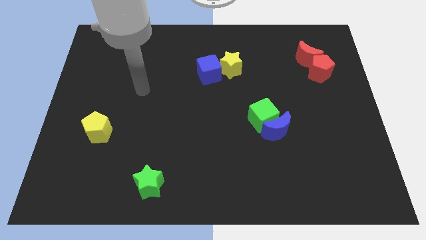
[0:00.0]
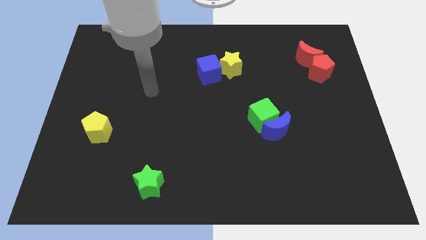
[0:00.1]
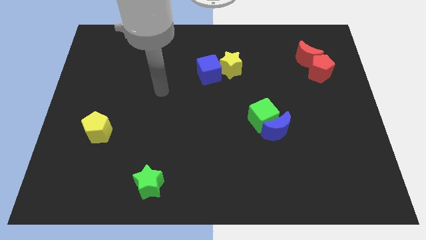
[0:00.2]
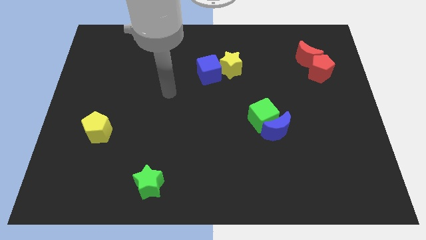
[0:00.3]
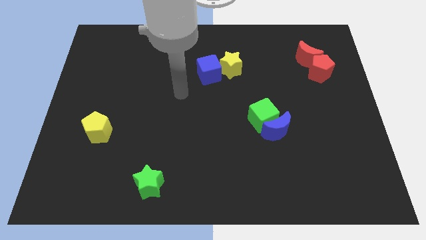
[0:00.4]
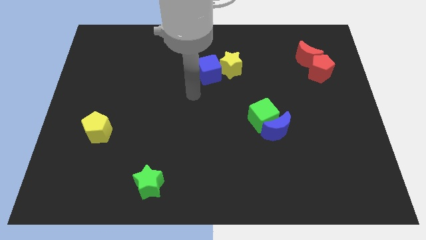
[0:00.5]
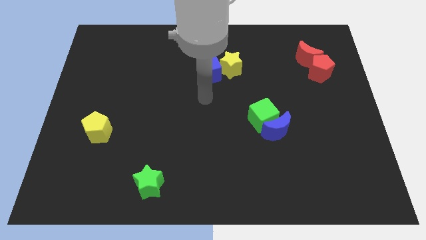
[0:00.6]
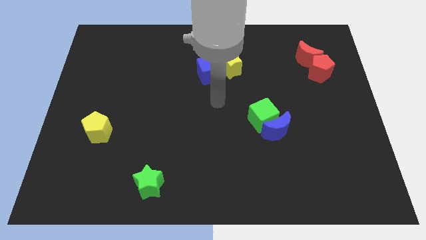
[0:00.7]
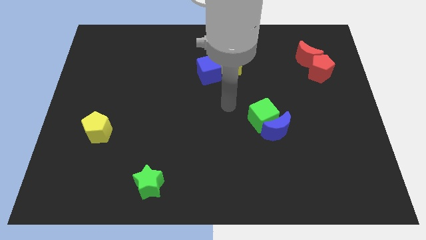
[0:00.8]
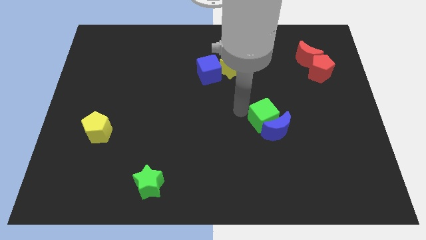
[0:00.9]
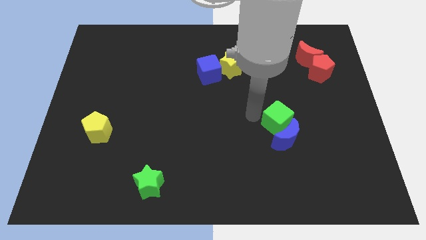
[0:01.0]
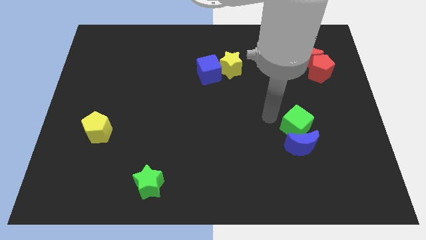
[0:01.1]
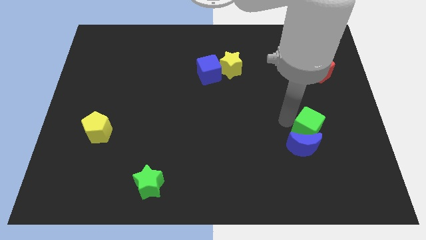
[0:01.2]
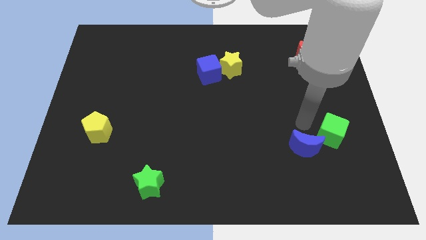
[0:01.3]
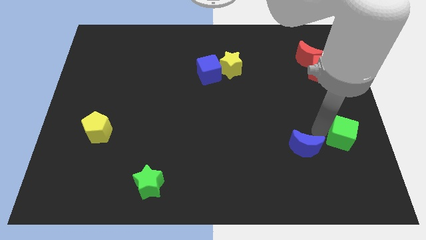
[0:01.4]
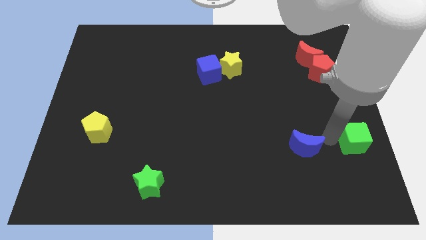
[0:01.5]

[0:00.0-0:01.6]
move the blue moon away from the green cube

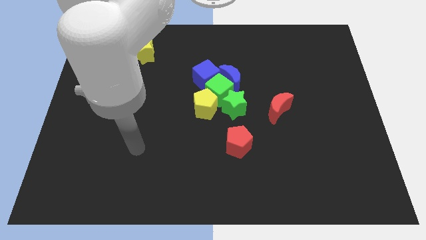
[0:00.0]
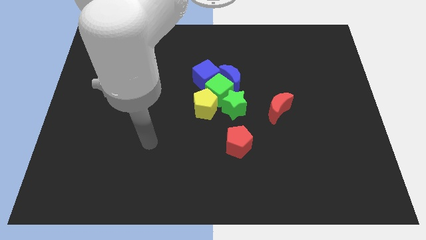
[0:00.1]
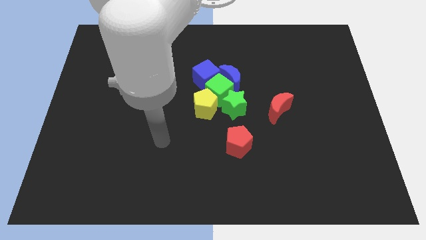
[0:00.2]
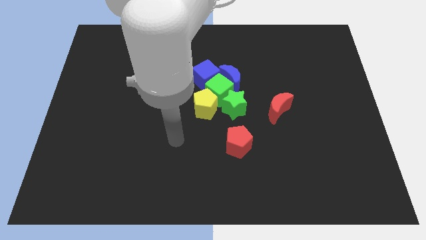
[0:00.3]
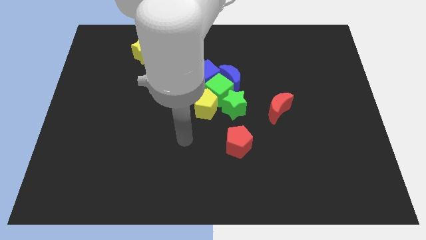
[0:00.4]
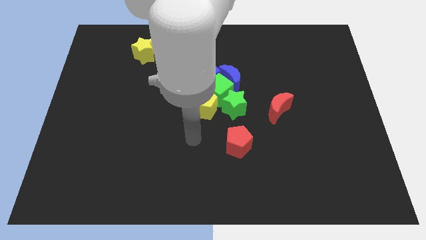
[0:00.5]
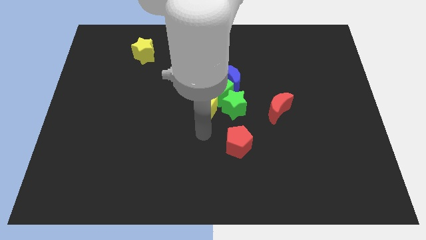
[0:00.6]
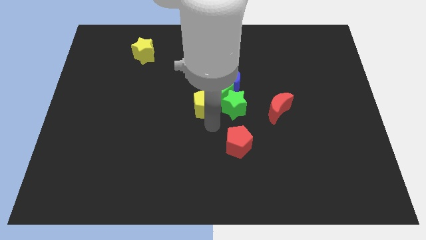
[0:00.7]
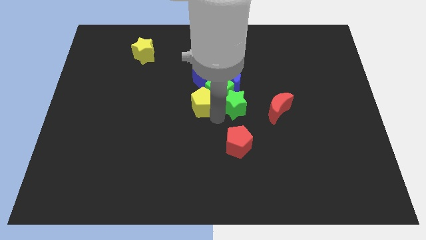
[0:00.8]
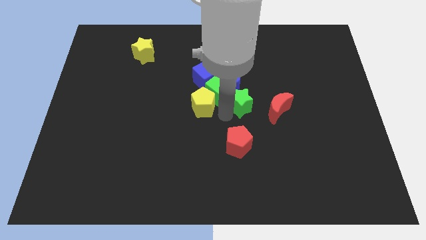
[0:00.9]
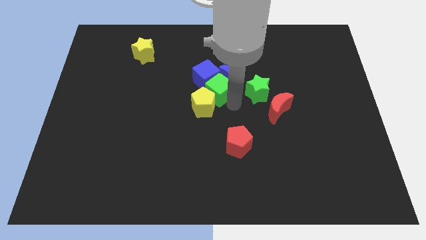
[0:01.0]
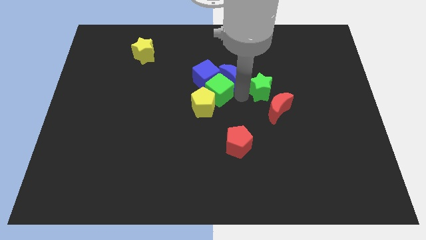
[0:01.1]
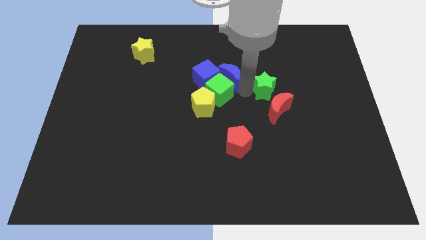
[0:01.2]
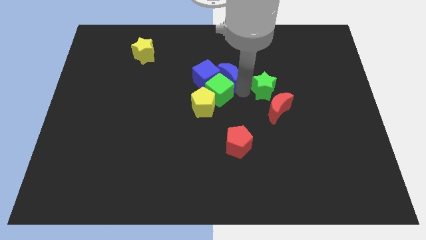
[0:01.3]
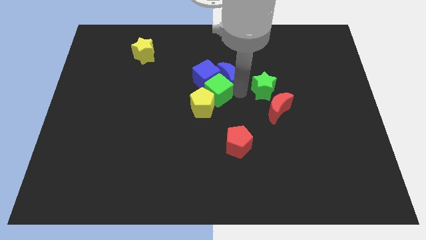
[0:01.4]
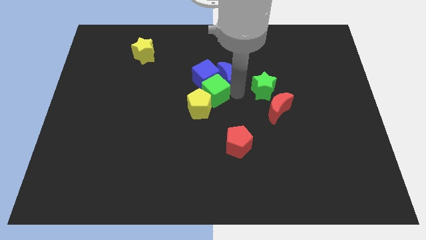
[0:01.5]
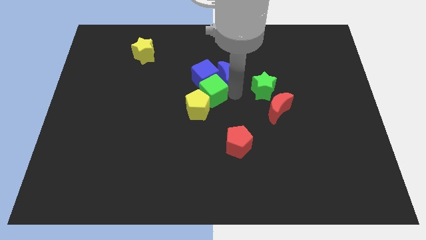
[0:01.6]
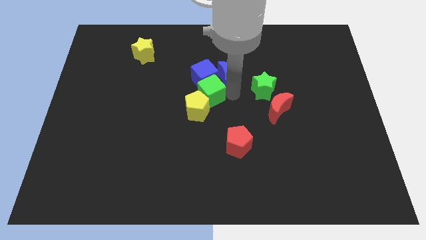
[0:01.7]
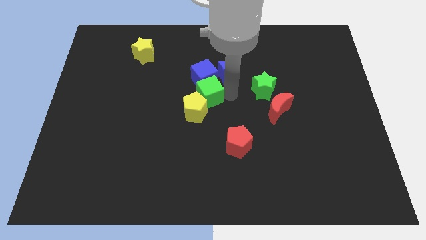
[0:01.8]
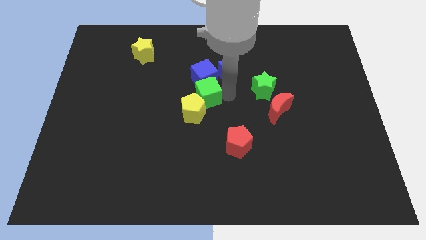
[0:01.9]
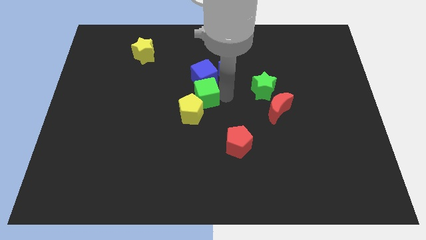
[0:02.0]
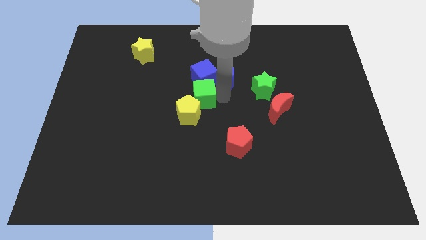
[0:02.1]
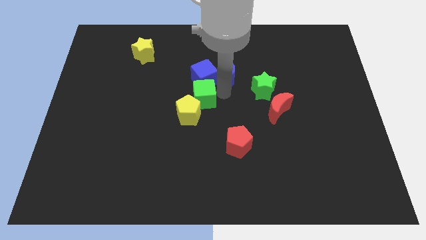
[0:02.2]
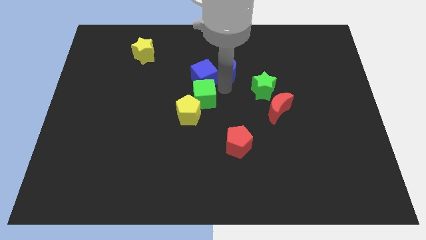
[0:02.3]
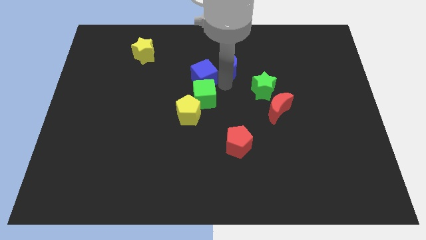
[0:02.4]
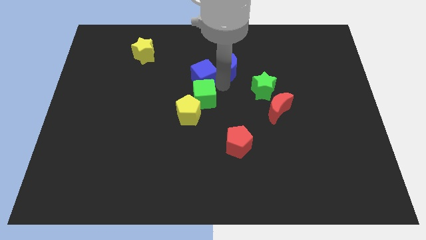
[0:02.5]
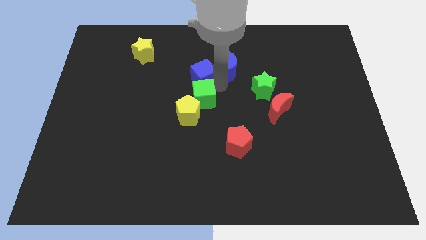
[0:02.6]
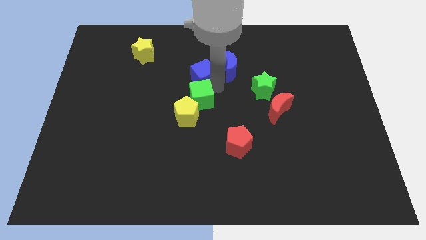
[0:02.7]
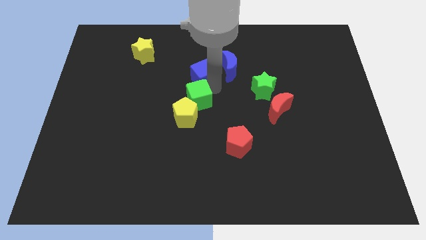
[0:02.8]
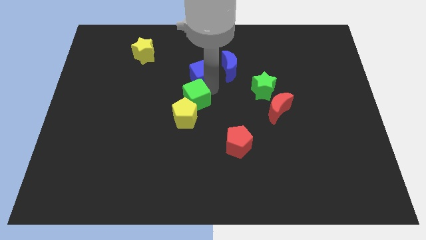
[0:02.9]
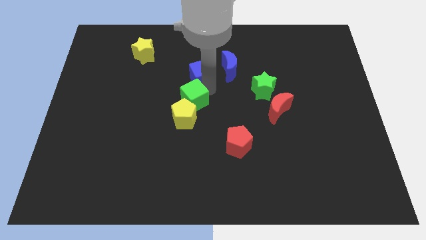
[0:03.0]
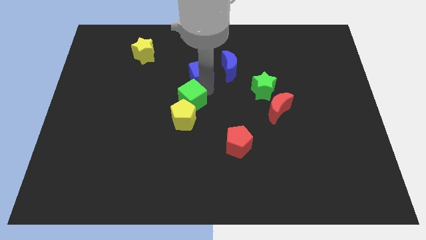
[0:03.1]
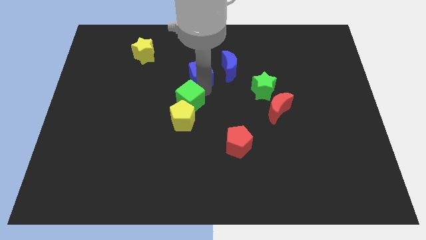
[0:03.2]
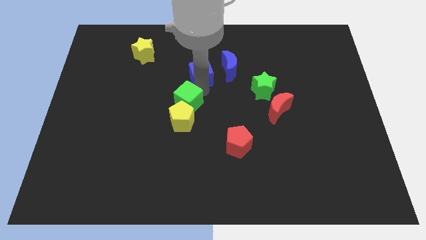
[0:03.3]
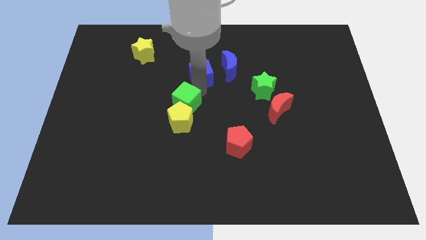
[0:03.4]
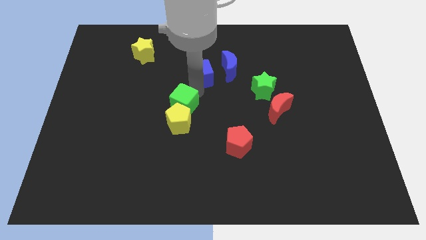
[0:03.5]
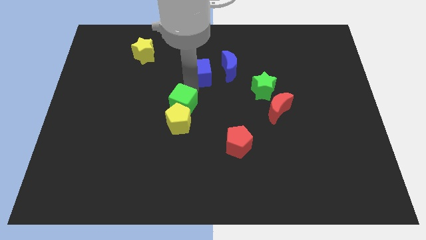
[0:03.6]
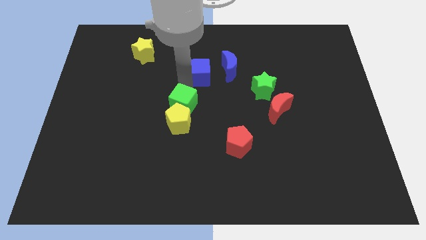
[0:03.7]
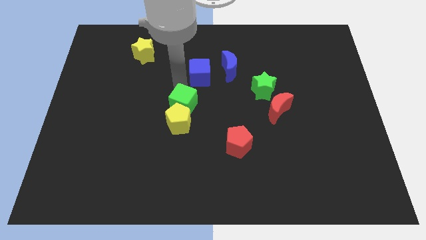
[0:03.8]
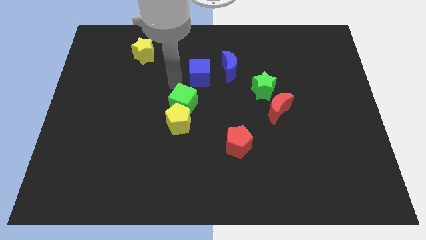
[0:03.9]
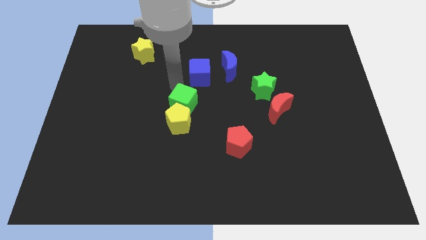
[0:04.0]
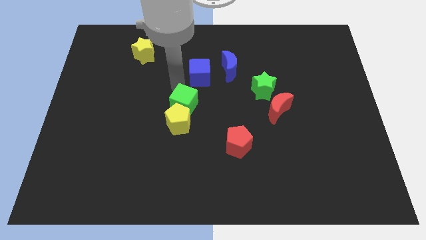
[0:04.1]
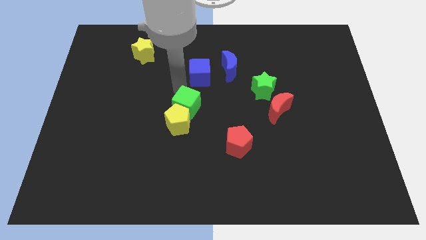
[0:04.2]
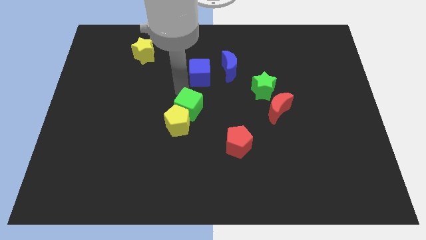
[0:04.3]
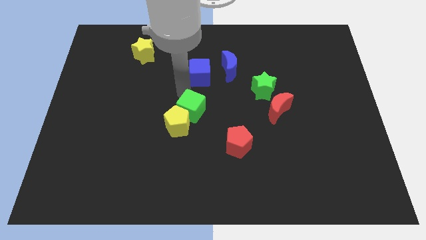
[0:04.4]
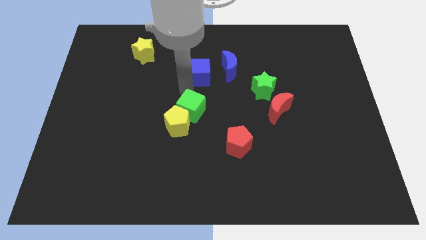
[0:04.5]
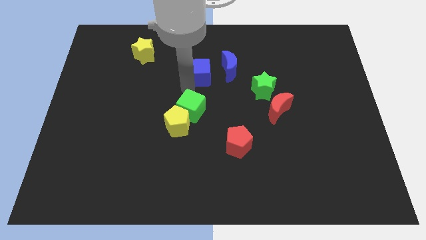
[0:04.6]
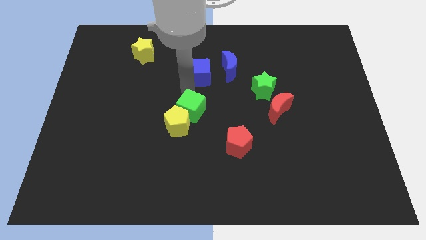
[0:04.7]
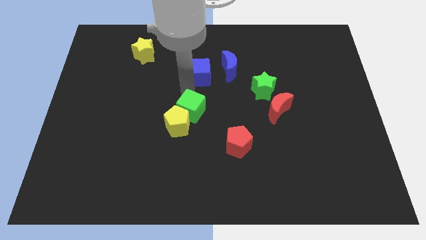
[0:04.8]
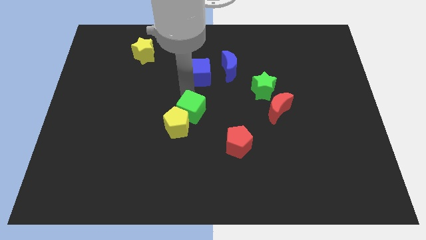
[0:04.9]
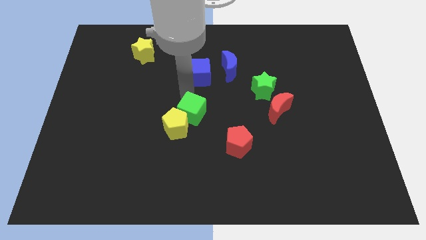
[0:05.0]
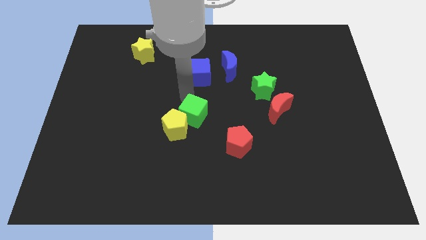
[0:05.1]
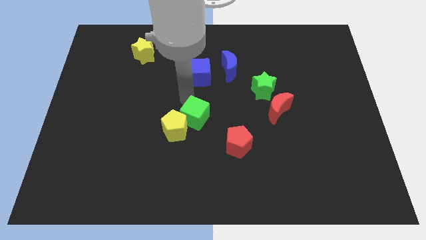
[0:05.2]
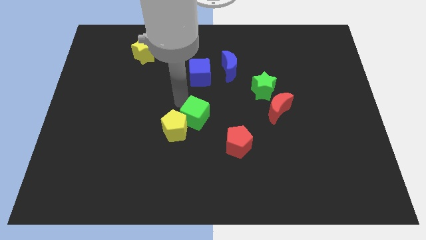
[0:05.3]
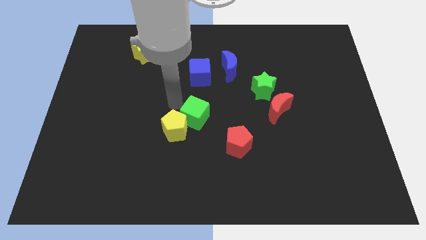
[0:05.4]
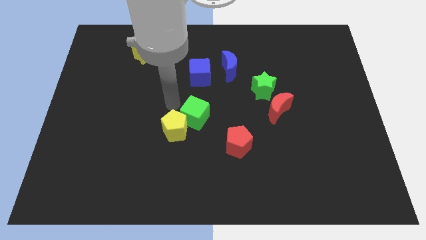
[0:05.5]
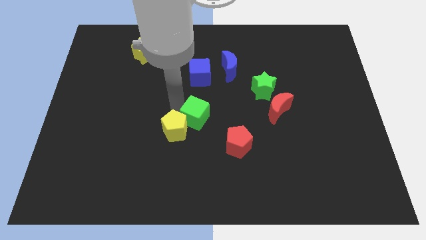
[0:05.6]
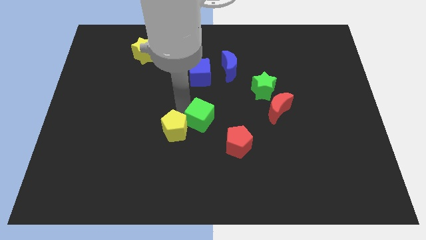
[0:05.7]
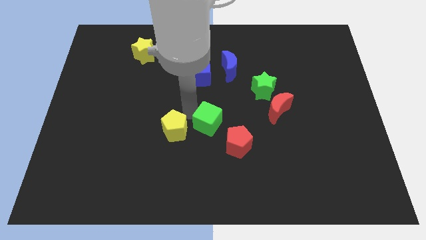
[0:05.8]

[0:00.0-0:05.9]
separate the green cube from the group

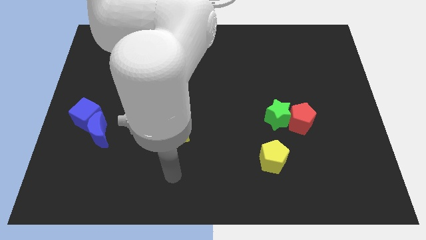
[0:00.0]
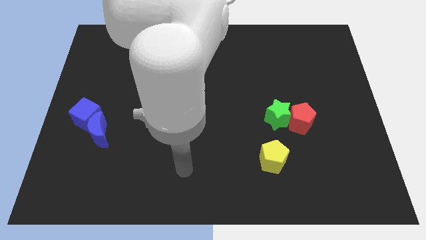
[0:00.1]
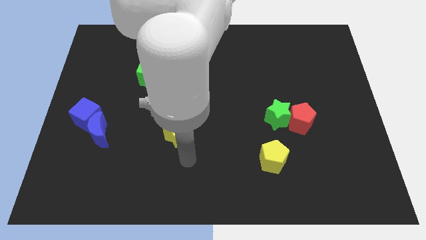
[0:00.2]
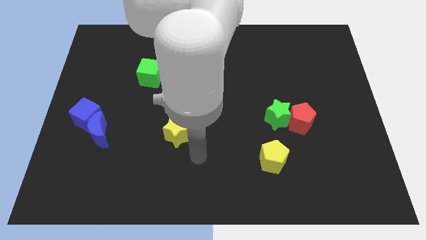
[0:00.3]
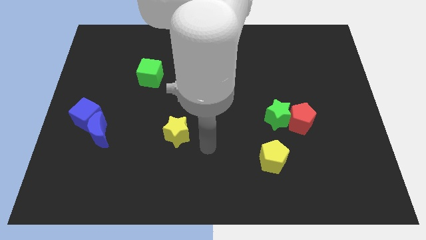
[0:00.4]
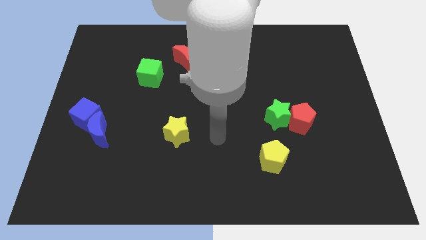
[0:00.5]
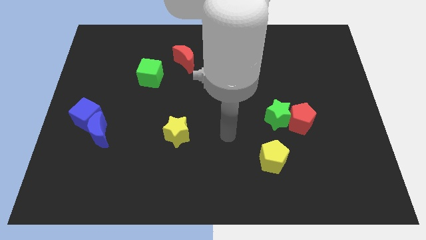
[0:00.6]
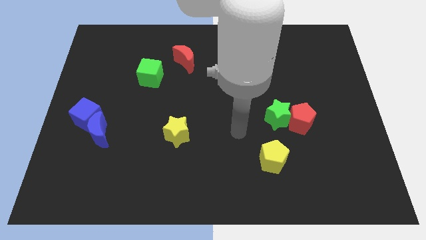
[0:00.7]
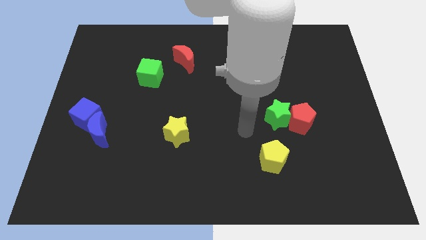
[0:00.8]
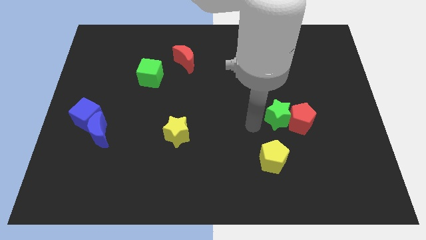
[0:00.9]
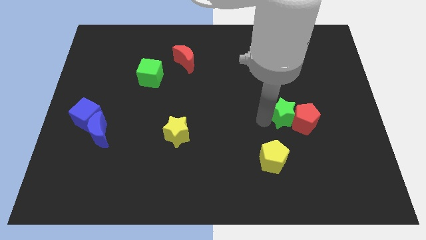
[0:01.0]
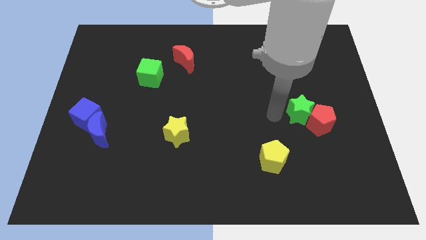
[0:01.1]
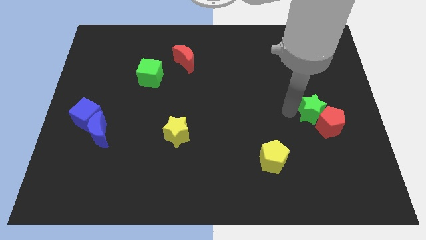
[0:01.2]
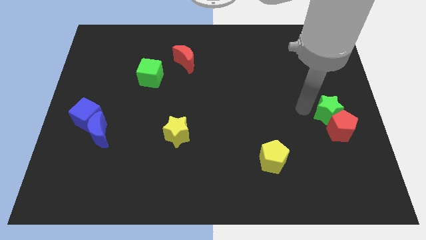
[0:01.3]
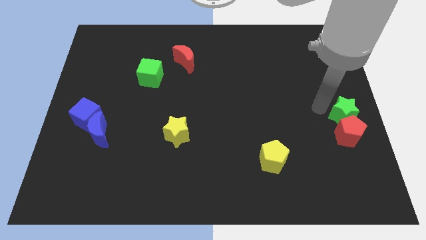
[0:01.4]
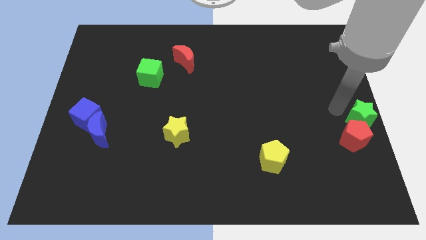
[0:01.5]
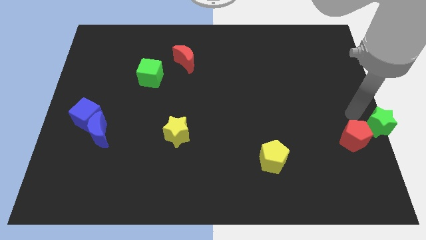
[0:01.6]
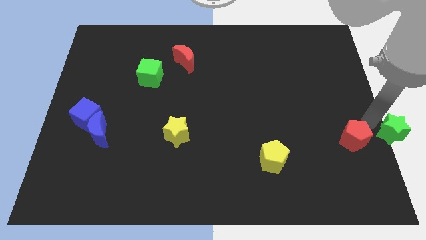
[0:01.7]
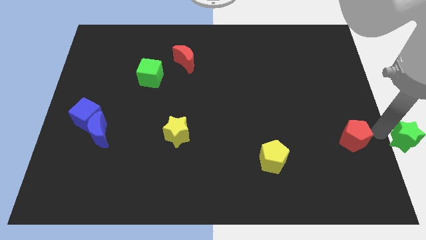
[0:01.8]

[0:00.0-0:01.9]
pull the red pentagon apart from the green star
